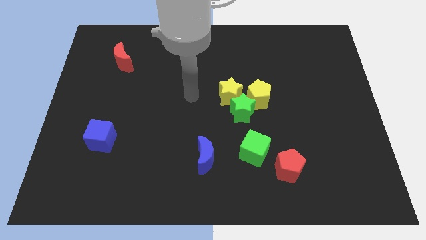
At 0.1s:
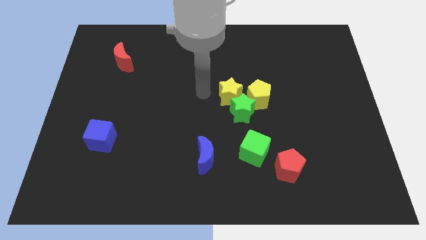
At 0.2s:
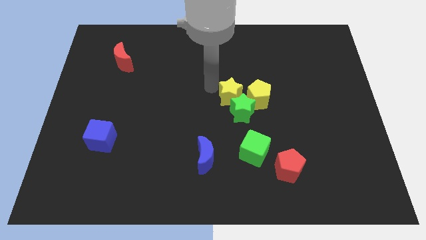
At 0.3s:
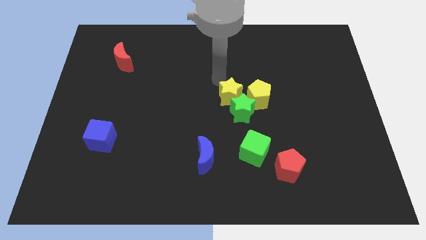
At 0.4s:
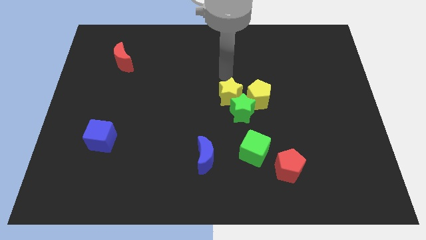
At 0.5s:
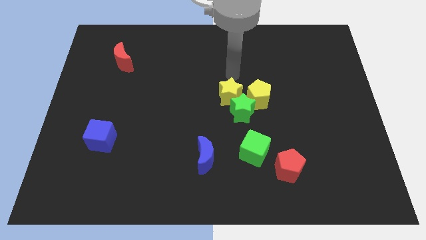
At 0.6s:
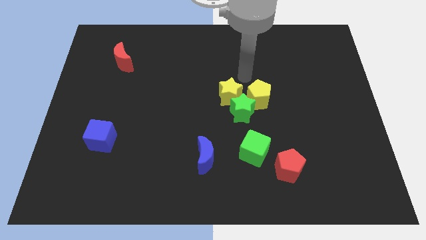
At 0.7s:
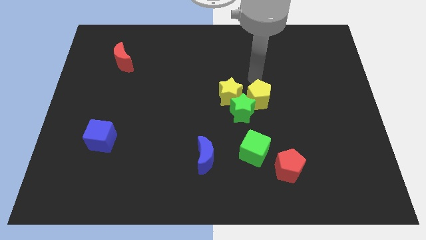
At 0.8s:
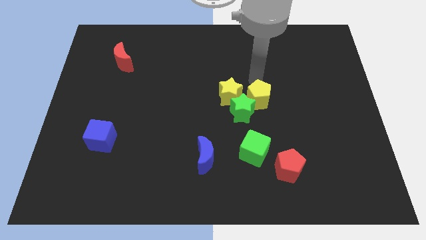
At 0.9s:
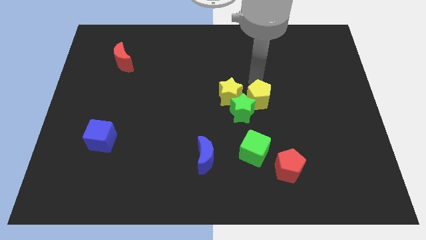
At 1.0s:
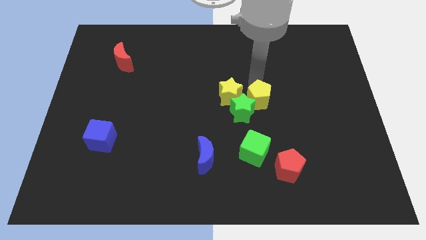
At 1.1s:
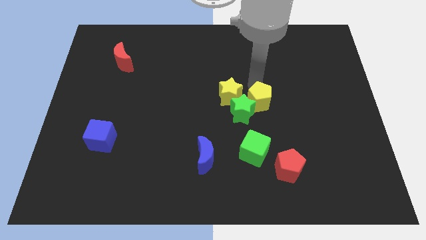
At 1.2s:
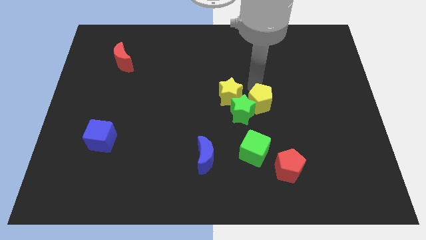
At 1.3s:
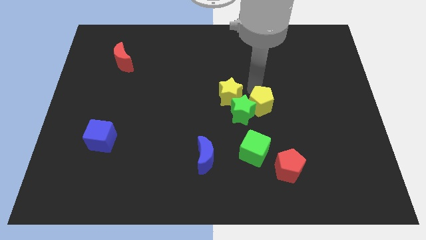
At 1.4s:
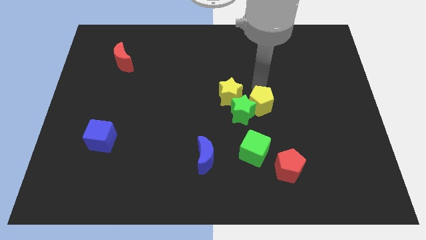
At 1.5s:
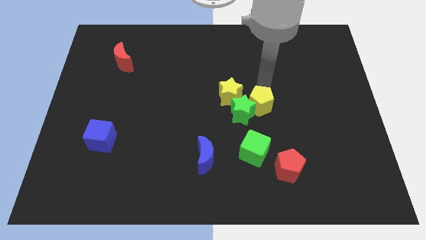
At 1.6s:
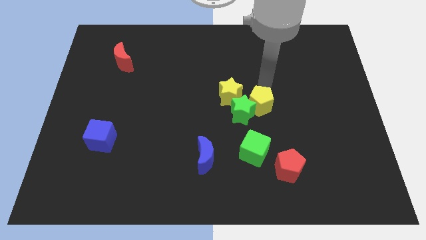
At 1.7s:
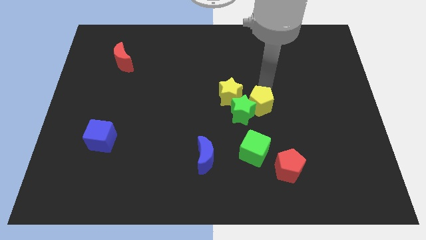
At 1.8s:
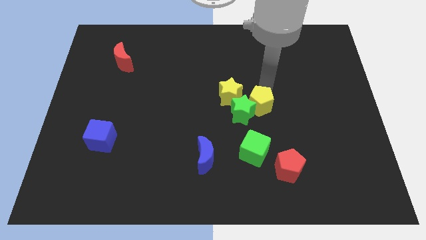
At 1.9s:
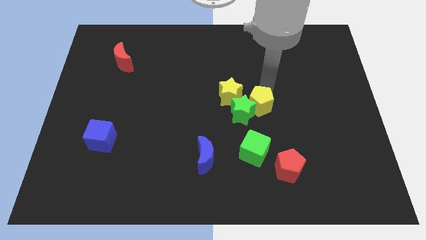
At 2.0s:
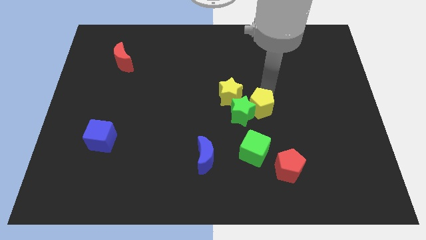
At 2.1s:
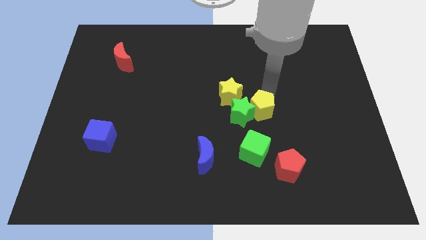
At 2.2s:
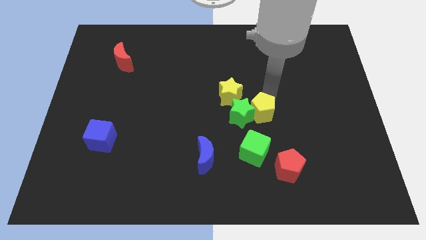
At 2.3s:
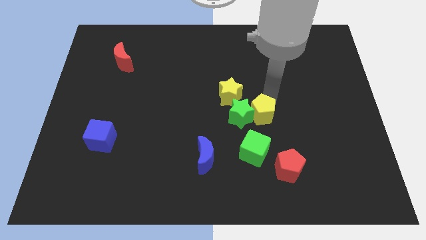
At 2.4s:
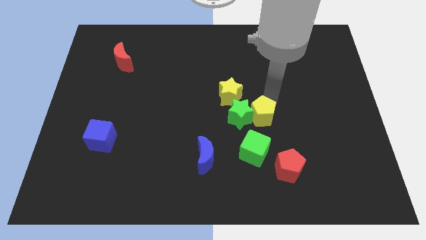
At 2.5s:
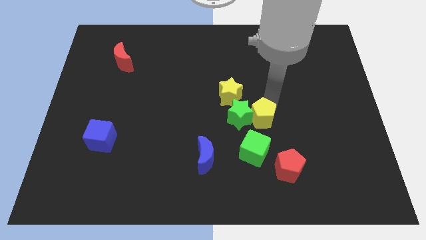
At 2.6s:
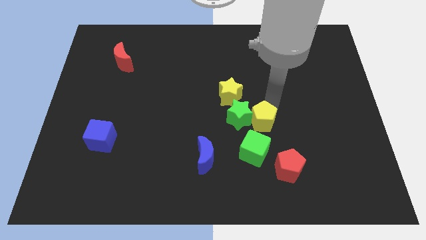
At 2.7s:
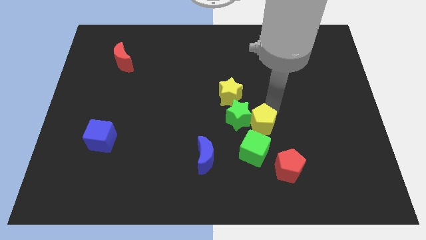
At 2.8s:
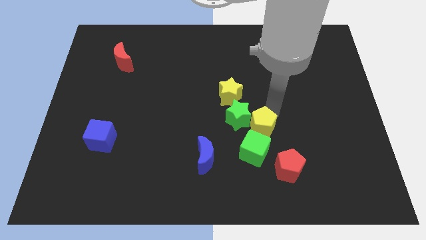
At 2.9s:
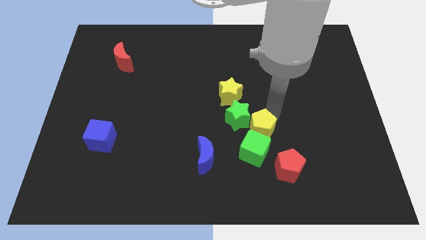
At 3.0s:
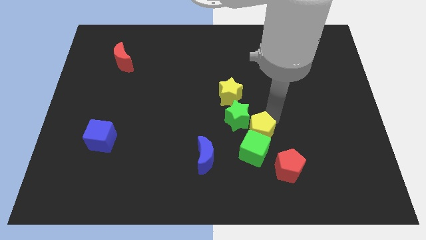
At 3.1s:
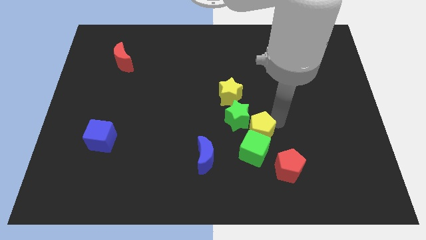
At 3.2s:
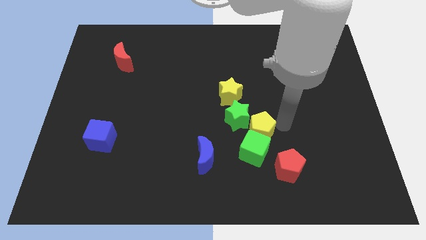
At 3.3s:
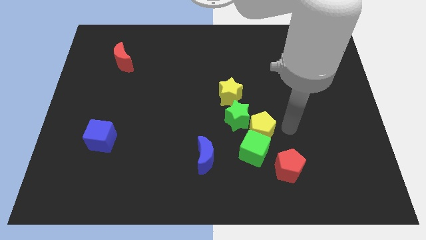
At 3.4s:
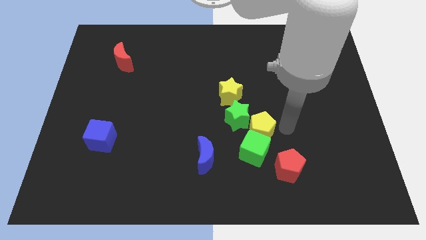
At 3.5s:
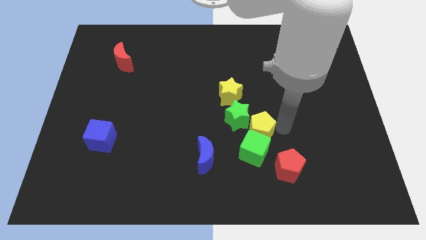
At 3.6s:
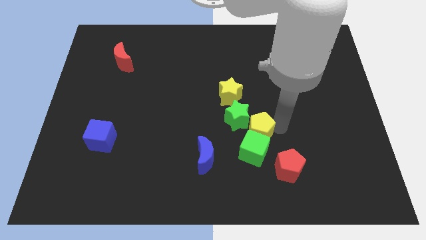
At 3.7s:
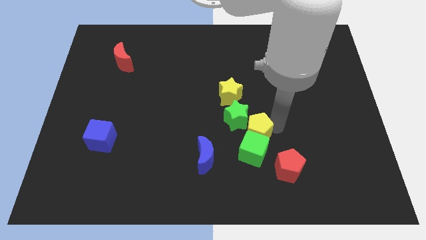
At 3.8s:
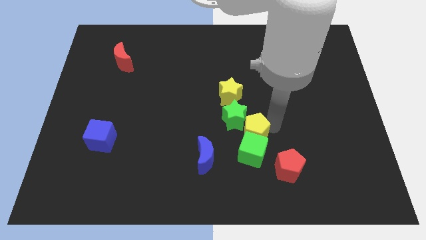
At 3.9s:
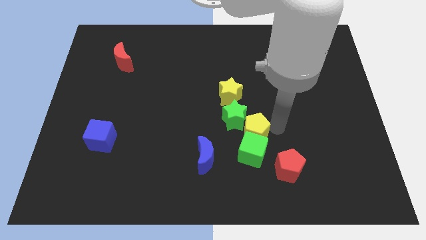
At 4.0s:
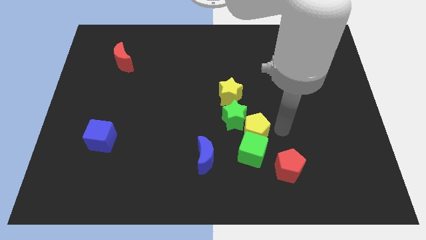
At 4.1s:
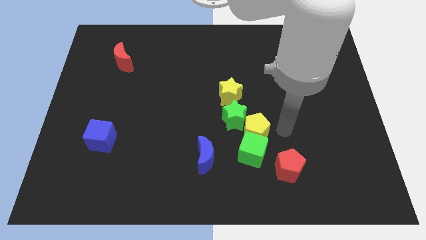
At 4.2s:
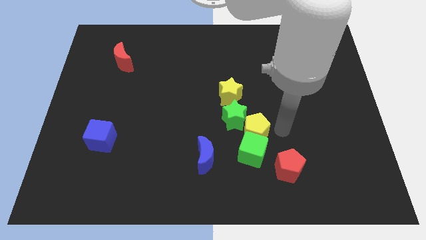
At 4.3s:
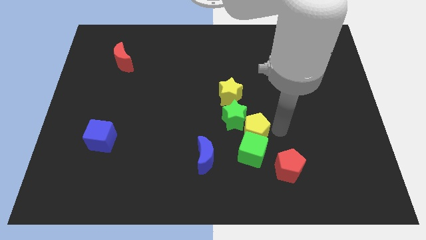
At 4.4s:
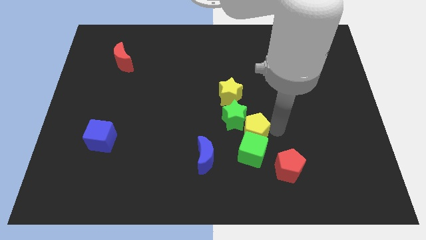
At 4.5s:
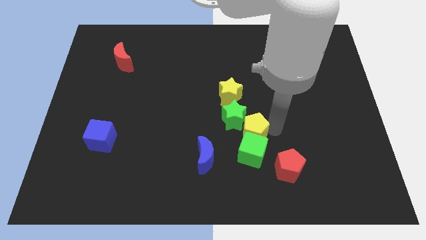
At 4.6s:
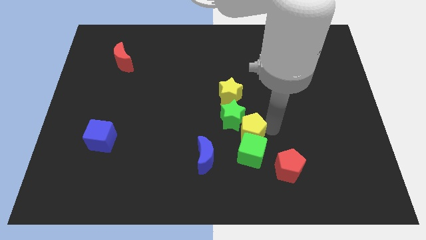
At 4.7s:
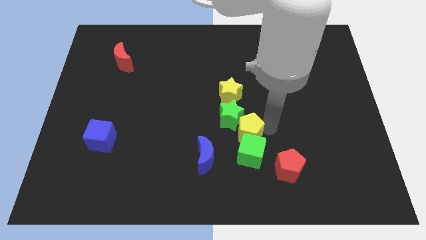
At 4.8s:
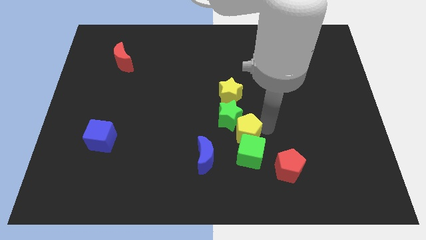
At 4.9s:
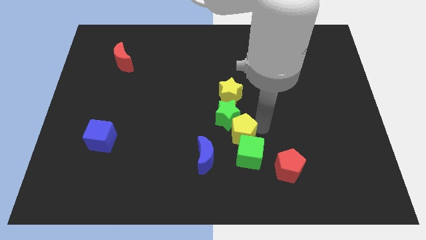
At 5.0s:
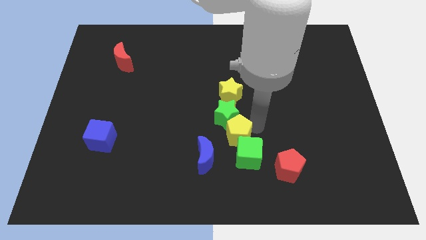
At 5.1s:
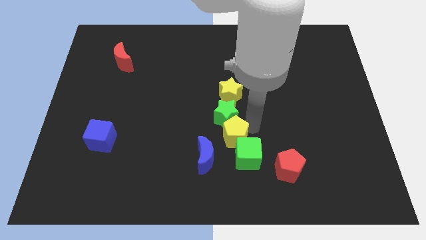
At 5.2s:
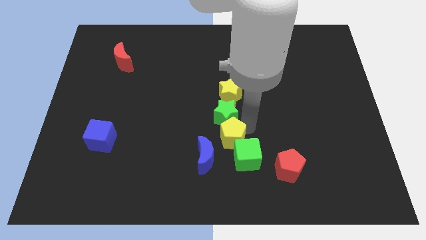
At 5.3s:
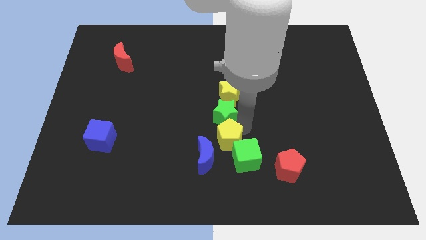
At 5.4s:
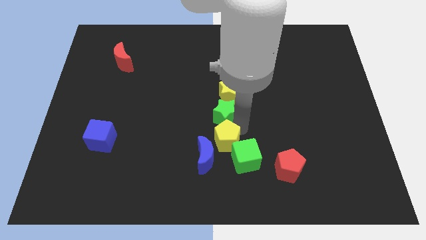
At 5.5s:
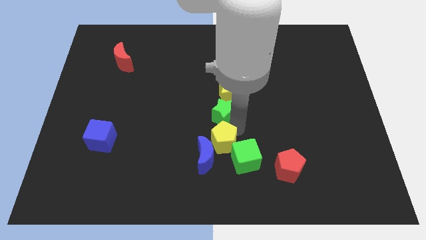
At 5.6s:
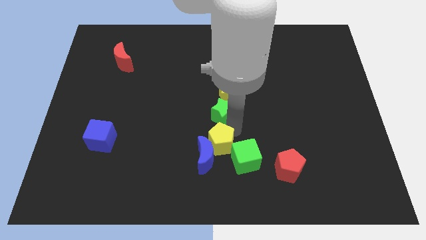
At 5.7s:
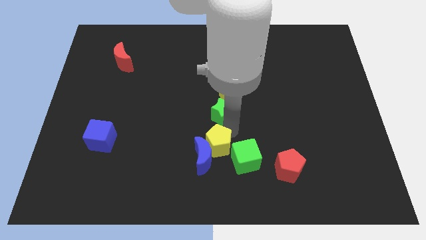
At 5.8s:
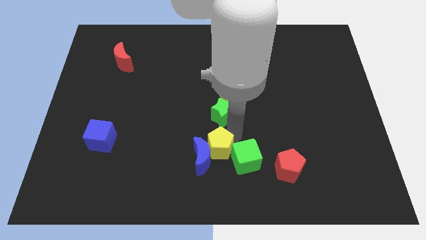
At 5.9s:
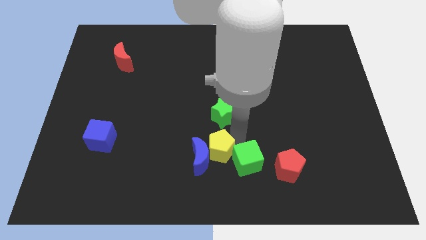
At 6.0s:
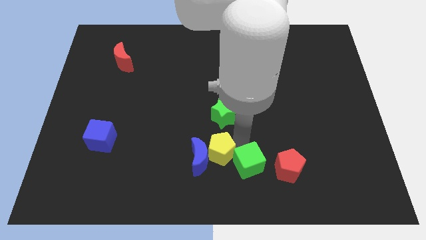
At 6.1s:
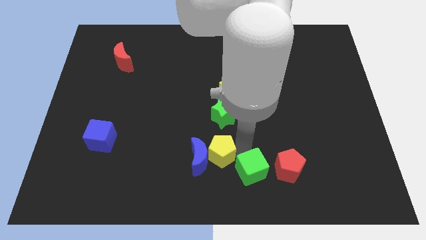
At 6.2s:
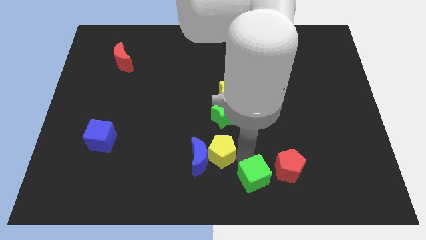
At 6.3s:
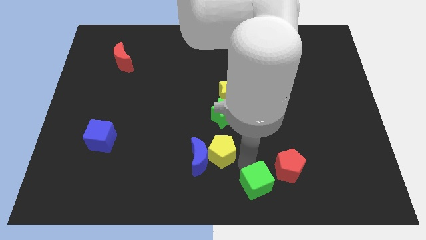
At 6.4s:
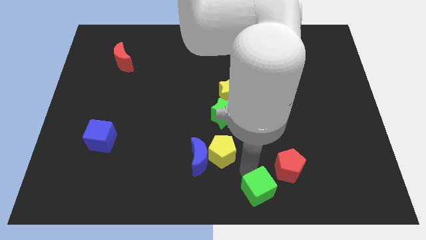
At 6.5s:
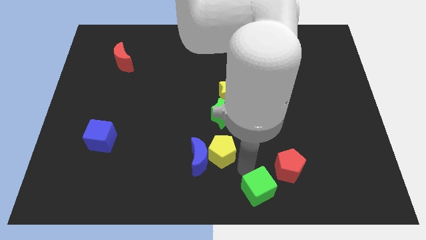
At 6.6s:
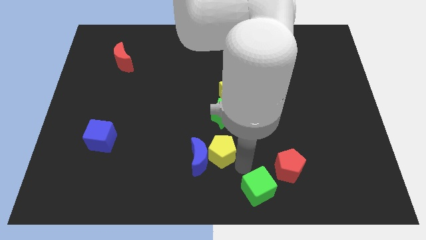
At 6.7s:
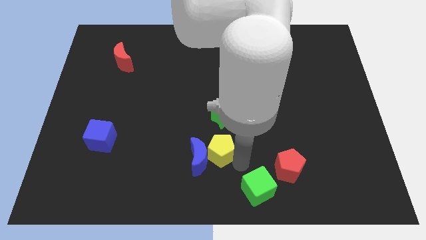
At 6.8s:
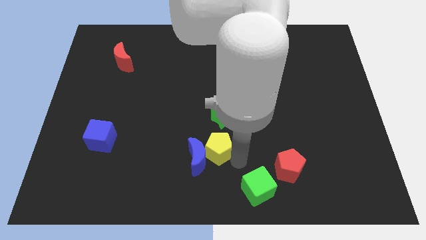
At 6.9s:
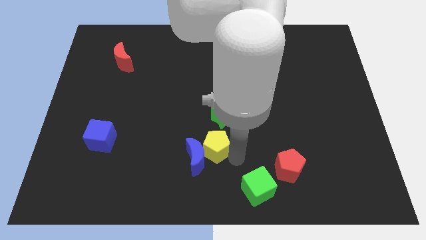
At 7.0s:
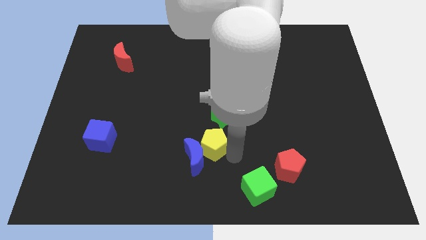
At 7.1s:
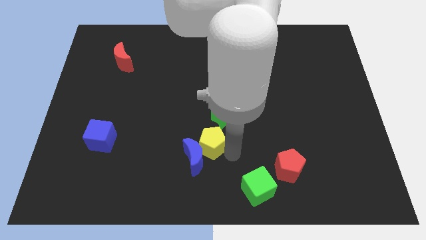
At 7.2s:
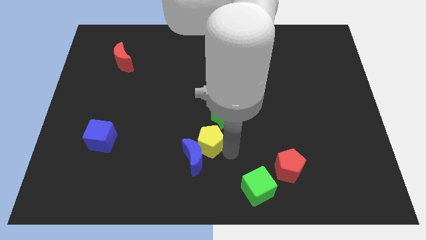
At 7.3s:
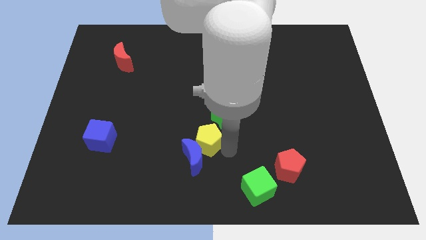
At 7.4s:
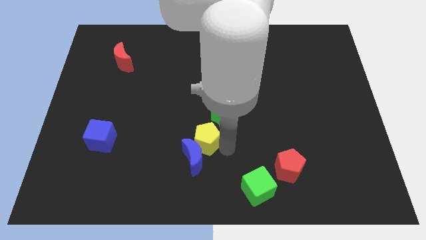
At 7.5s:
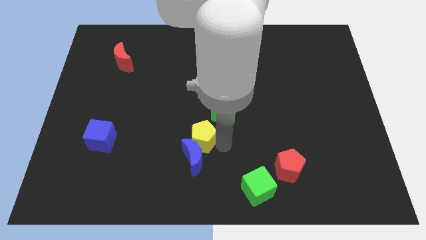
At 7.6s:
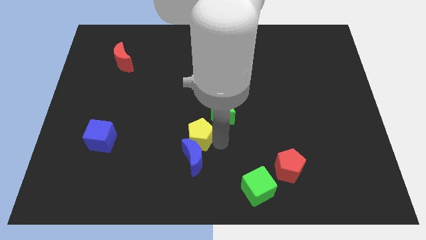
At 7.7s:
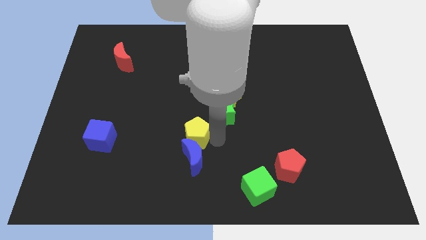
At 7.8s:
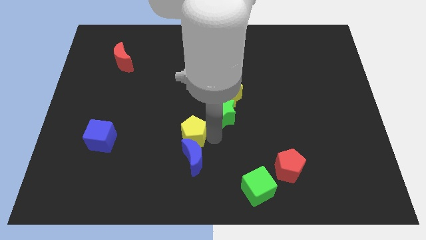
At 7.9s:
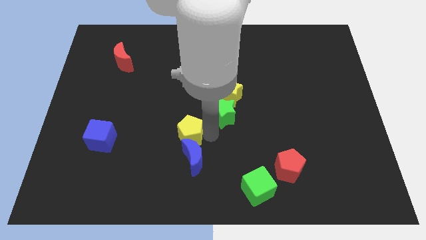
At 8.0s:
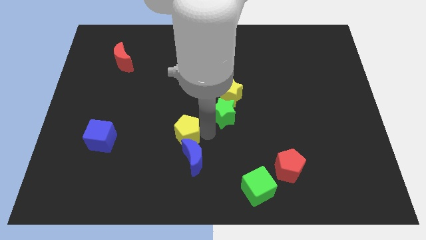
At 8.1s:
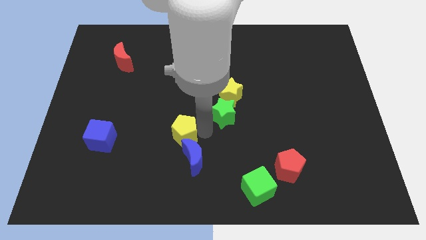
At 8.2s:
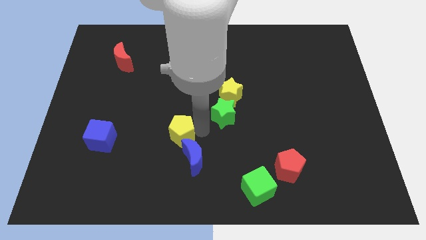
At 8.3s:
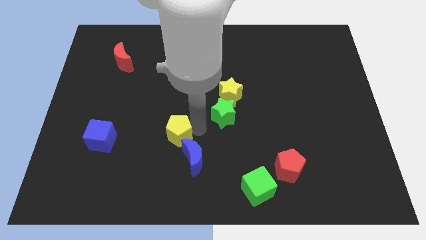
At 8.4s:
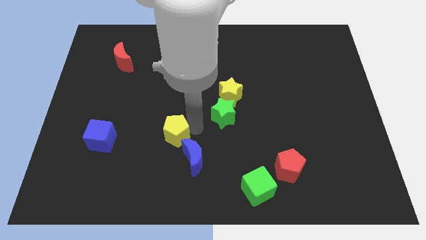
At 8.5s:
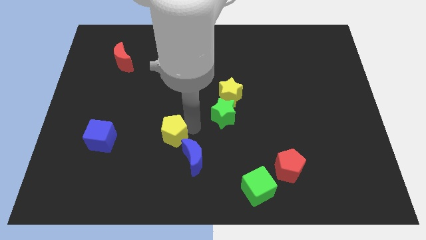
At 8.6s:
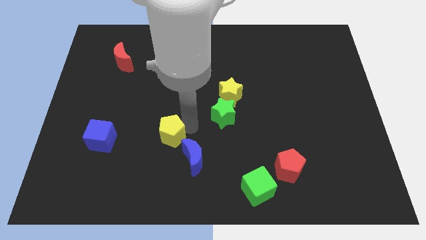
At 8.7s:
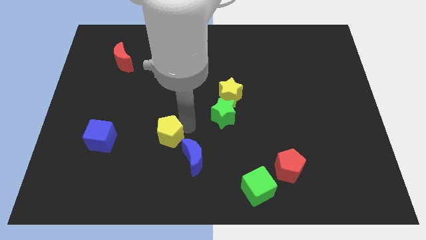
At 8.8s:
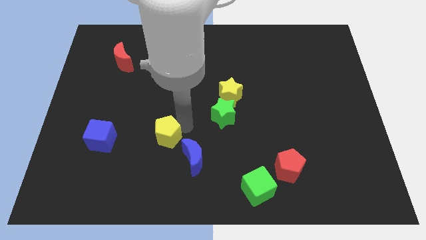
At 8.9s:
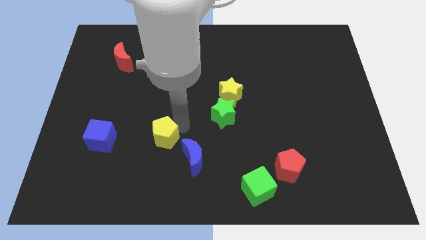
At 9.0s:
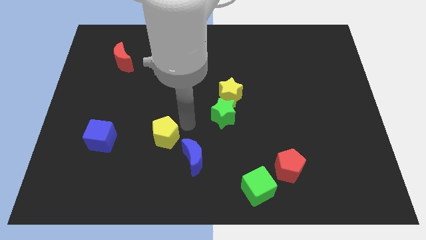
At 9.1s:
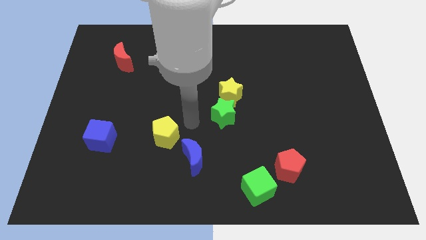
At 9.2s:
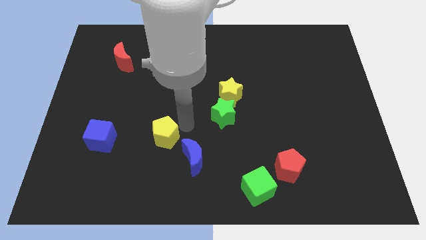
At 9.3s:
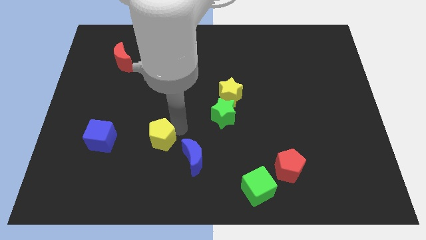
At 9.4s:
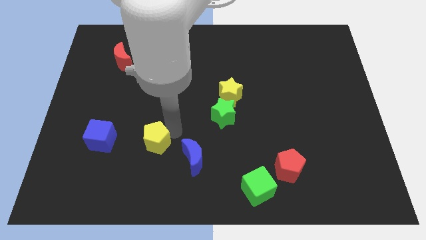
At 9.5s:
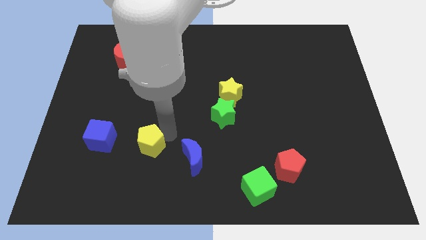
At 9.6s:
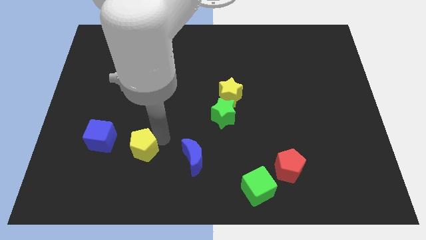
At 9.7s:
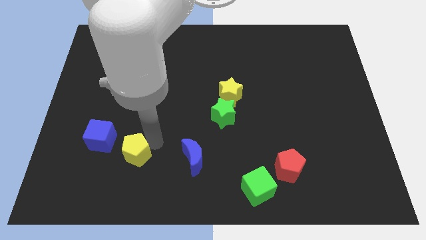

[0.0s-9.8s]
slide the yellow pentagon diagonally down and to the right of the blue cube
